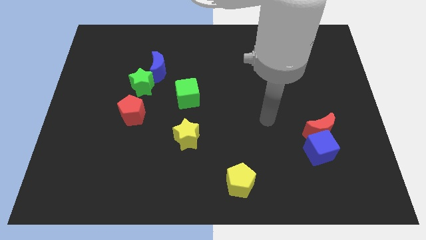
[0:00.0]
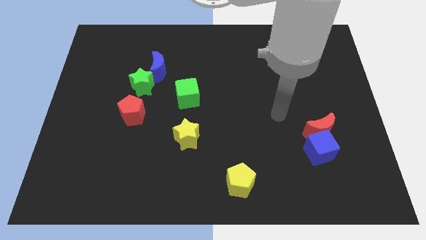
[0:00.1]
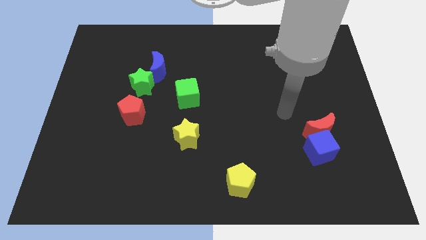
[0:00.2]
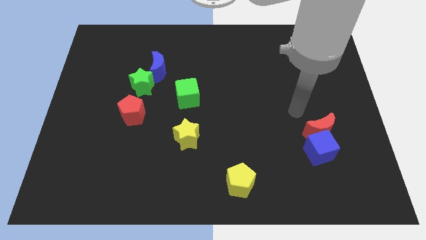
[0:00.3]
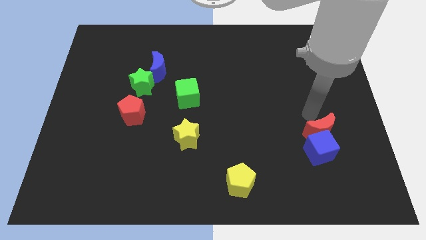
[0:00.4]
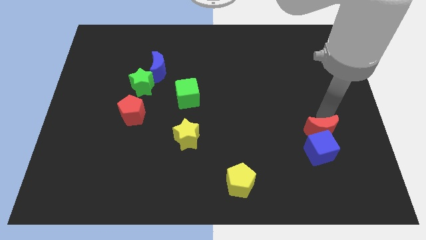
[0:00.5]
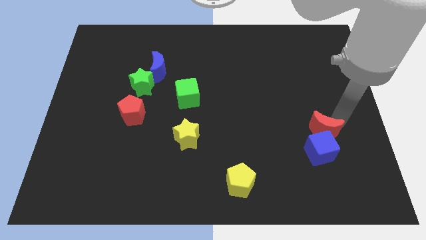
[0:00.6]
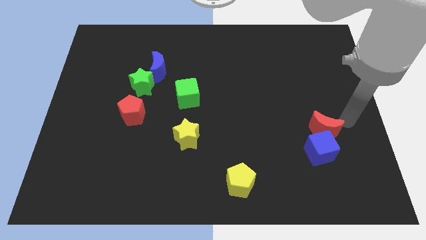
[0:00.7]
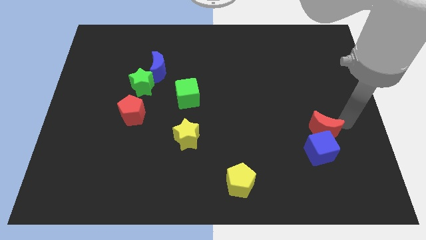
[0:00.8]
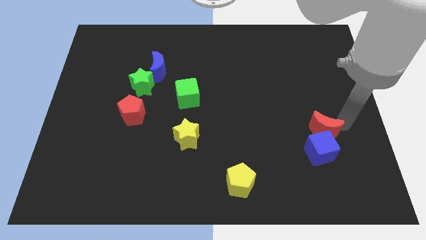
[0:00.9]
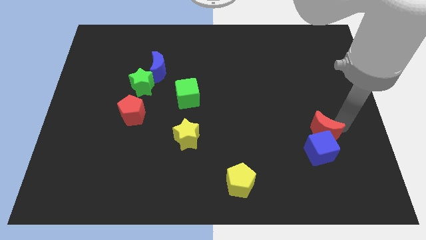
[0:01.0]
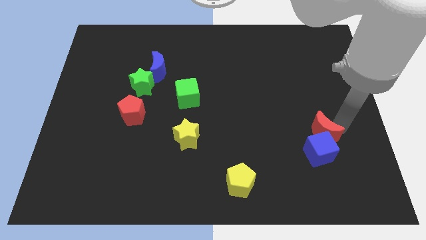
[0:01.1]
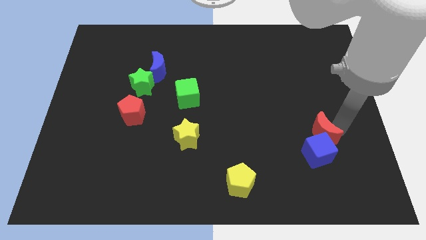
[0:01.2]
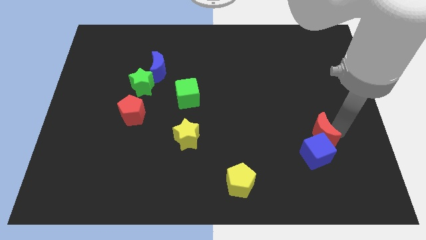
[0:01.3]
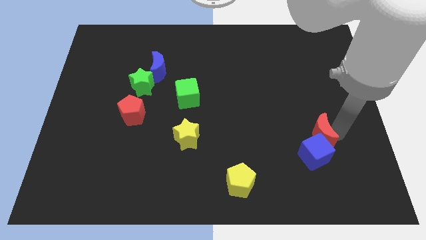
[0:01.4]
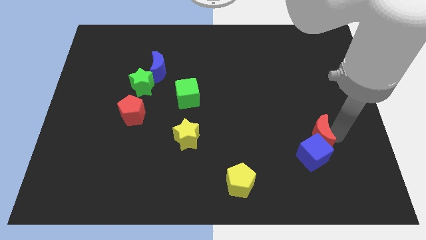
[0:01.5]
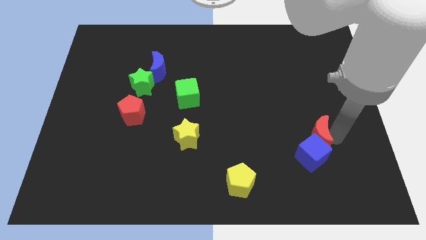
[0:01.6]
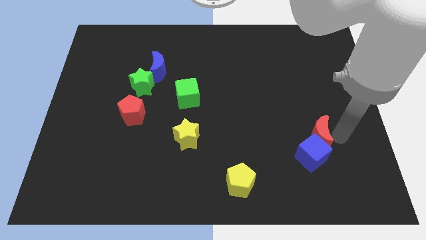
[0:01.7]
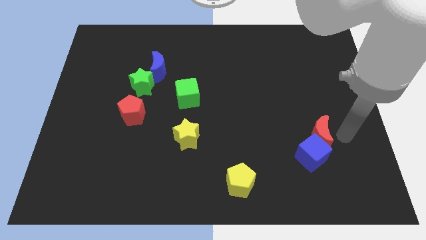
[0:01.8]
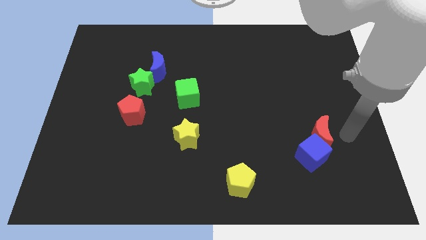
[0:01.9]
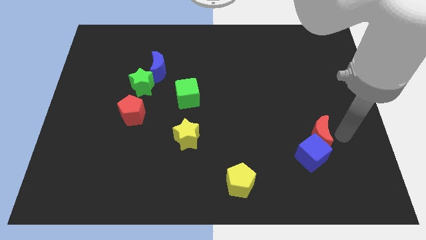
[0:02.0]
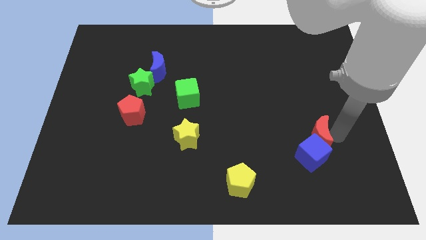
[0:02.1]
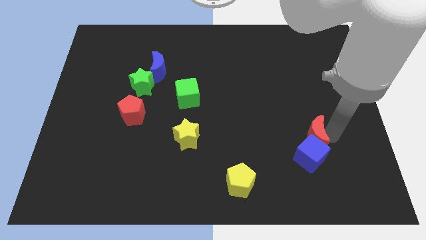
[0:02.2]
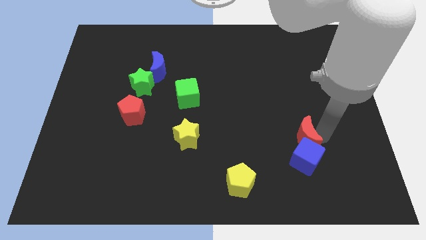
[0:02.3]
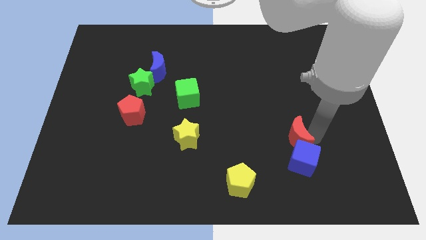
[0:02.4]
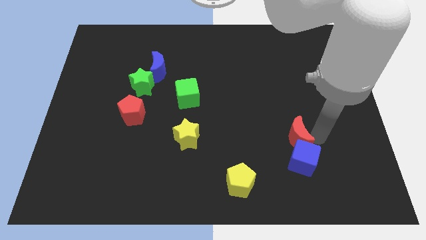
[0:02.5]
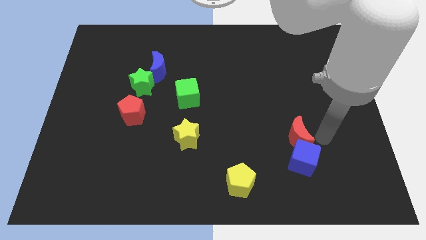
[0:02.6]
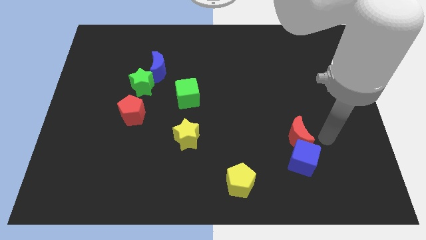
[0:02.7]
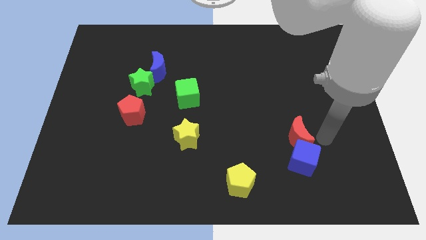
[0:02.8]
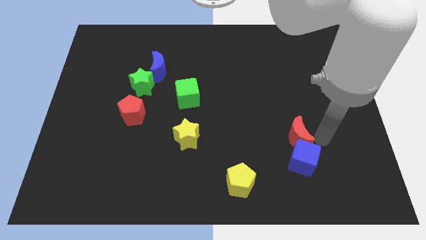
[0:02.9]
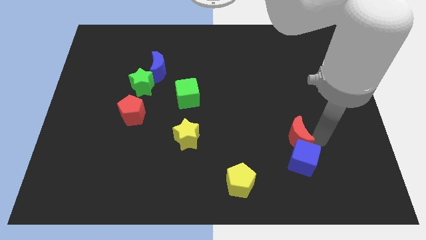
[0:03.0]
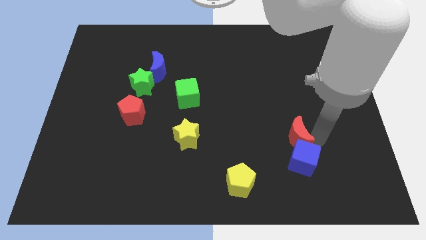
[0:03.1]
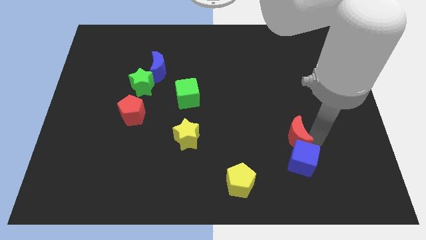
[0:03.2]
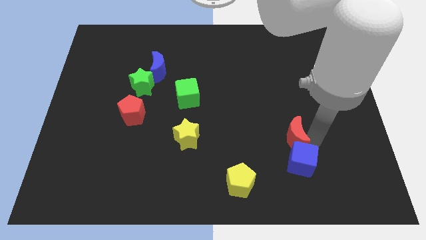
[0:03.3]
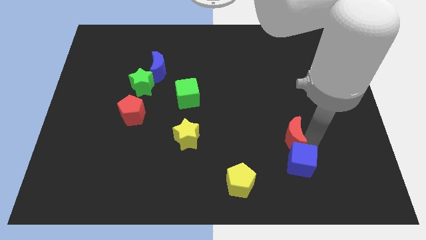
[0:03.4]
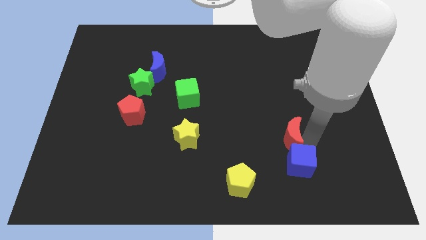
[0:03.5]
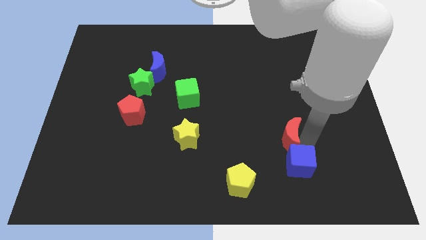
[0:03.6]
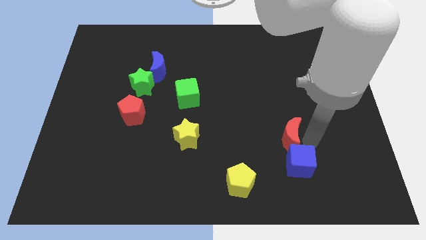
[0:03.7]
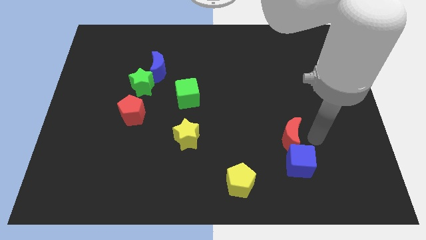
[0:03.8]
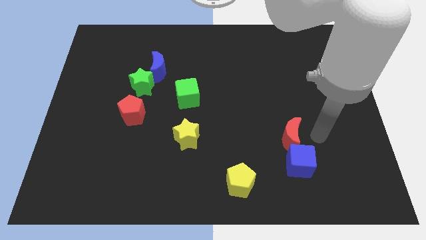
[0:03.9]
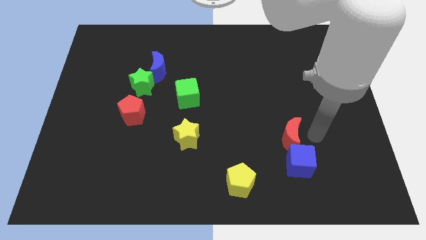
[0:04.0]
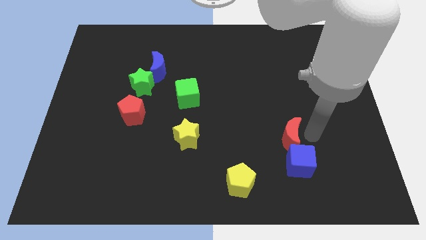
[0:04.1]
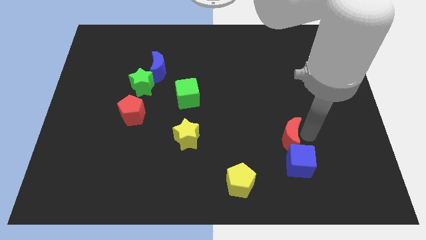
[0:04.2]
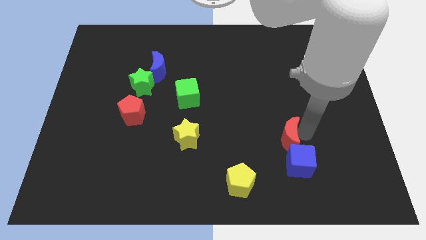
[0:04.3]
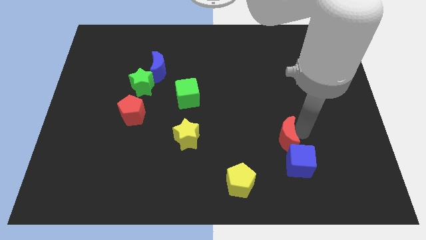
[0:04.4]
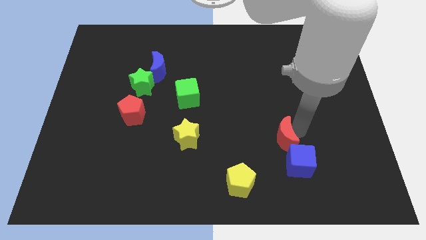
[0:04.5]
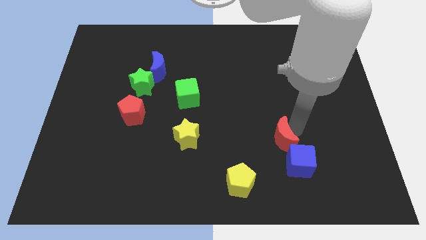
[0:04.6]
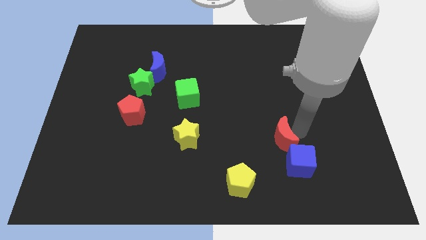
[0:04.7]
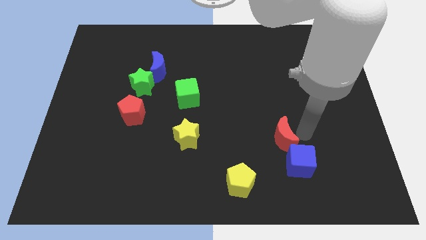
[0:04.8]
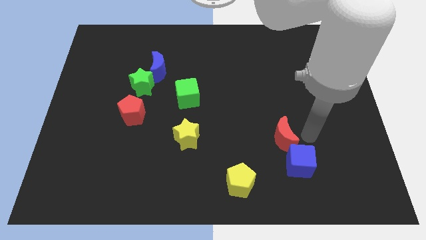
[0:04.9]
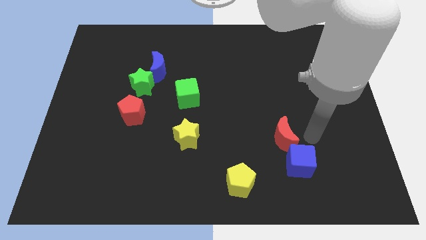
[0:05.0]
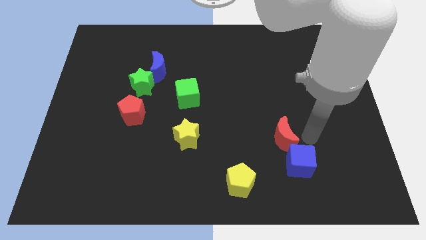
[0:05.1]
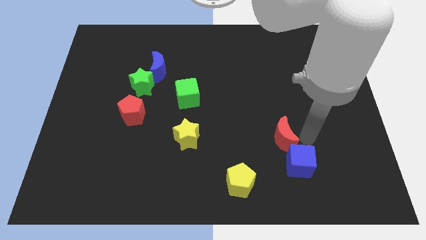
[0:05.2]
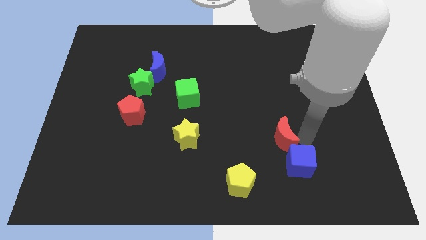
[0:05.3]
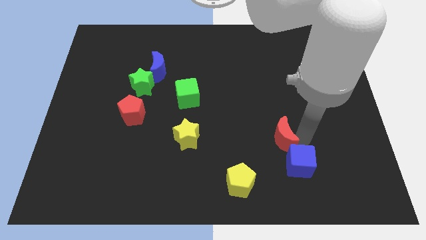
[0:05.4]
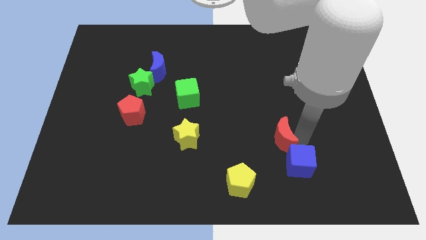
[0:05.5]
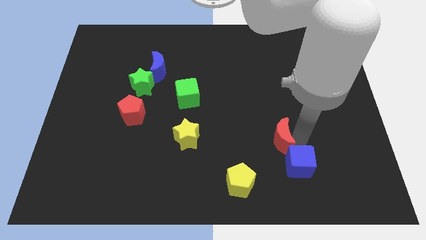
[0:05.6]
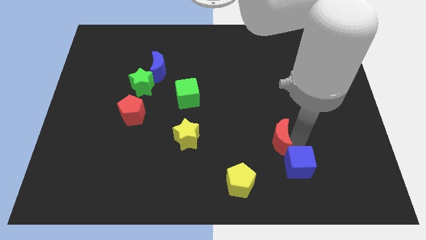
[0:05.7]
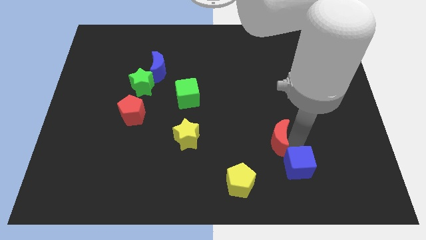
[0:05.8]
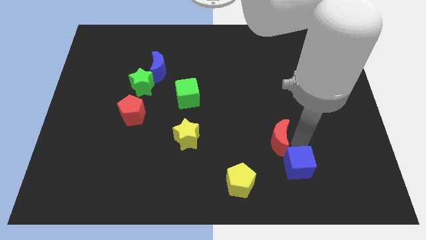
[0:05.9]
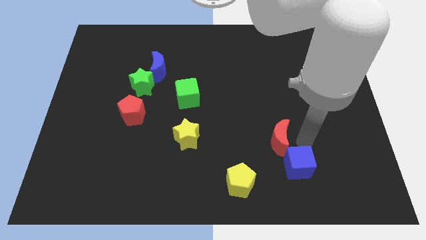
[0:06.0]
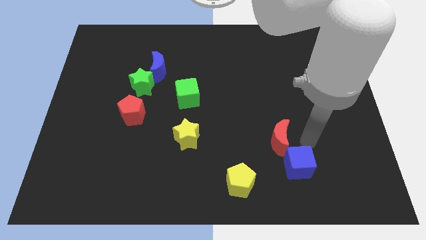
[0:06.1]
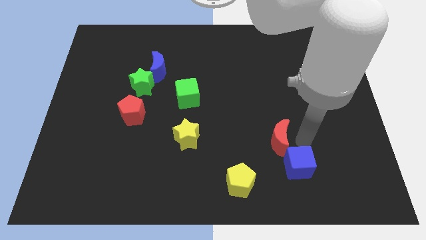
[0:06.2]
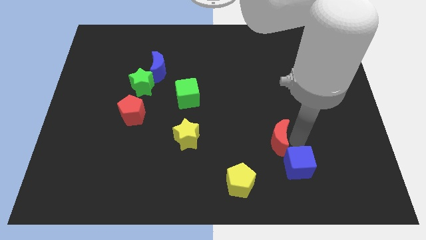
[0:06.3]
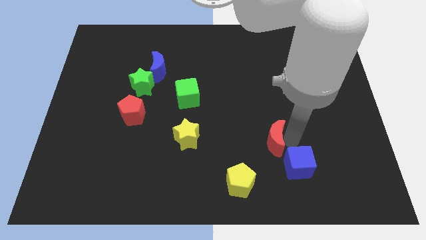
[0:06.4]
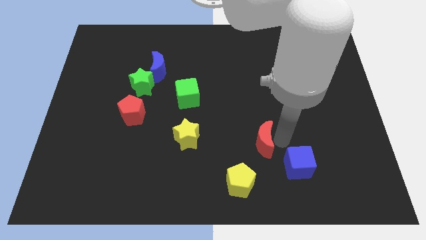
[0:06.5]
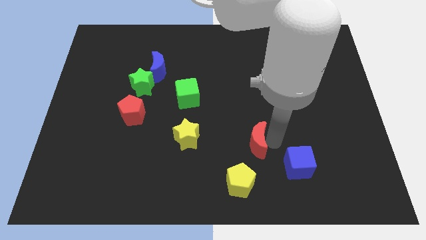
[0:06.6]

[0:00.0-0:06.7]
slide the red moon to the right side of the yellow star
